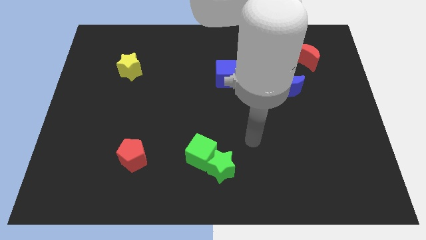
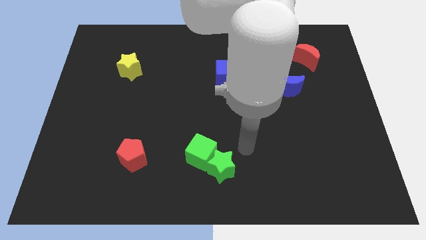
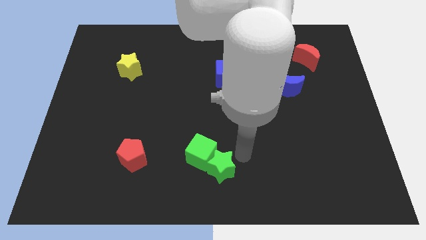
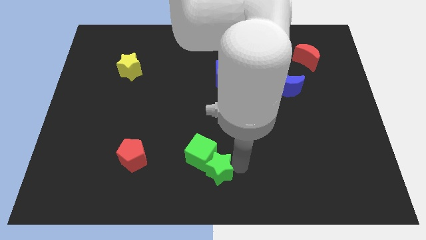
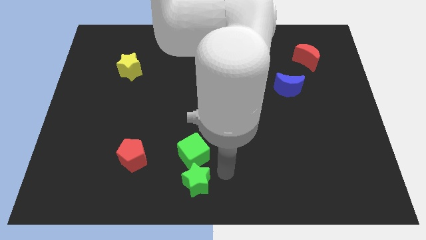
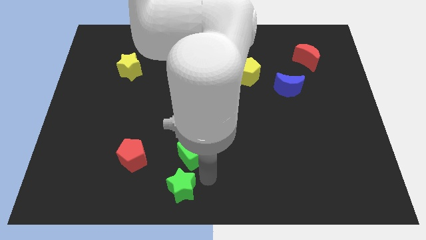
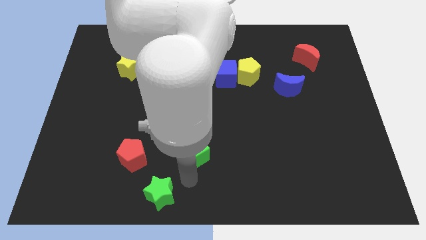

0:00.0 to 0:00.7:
separate the green cube from the green star

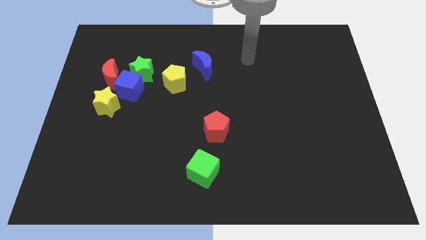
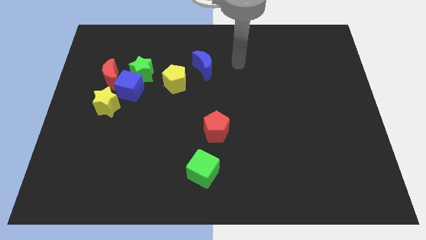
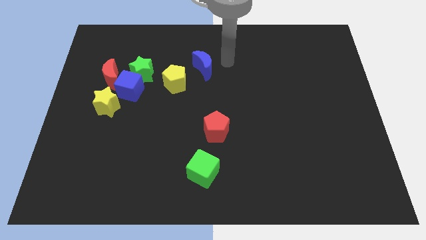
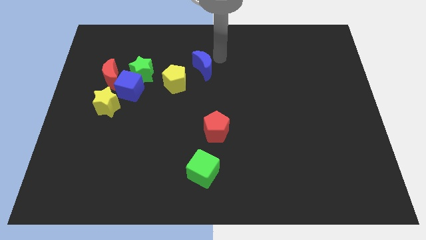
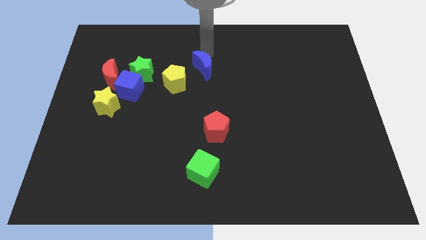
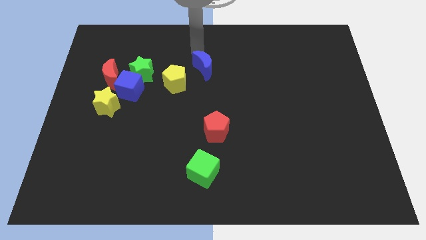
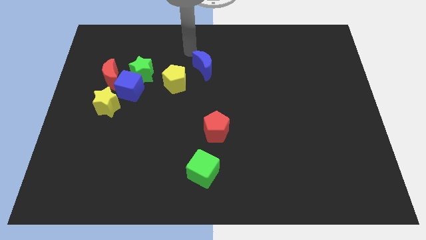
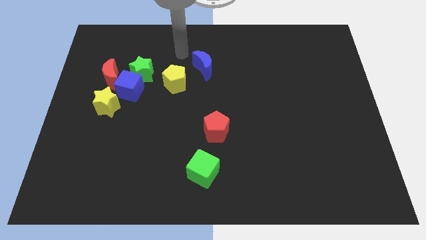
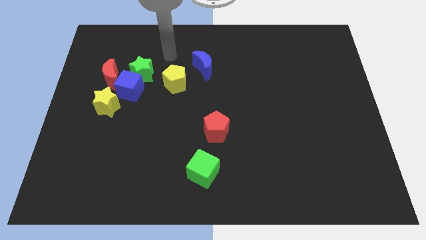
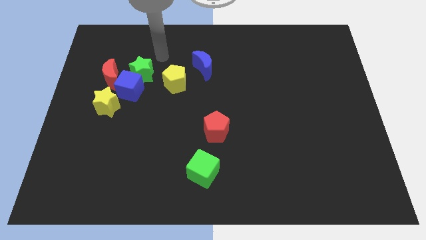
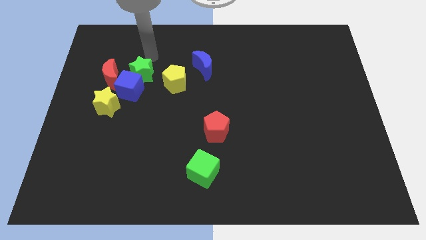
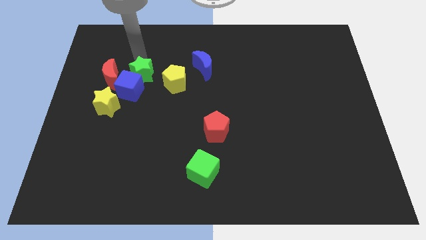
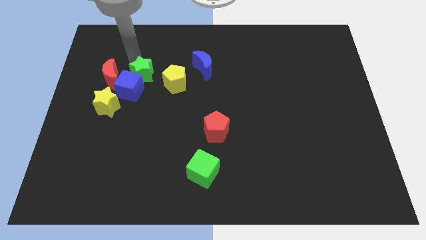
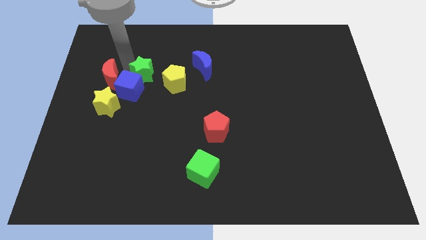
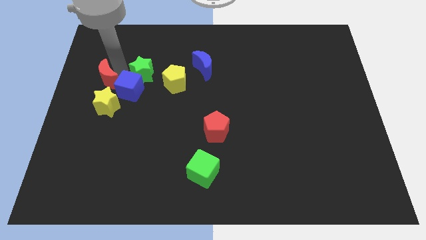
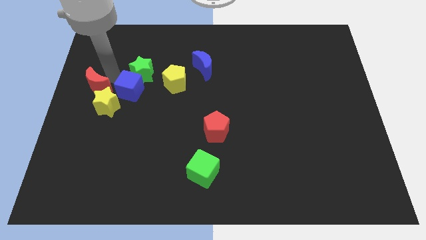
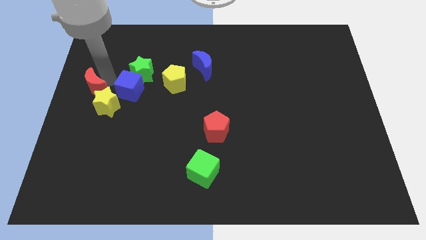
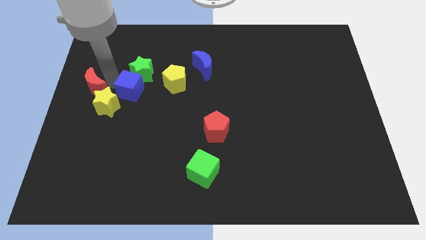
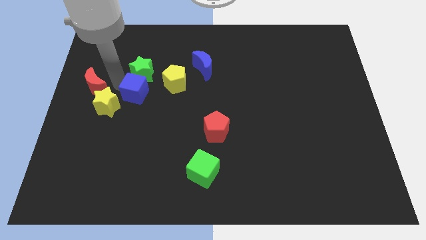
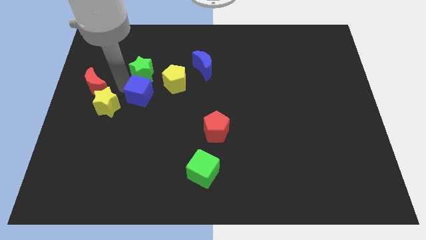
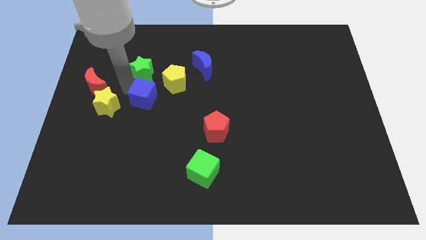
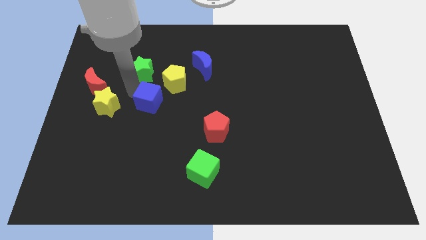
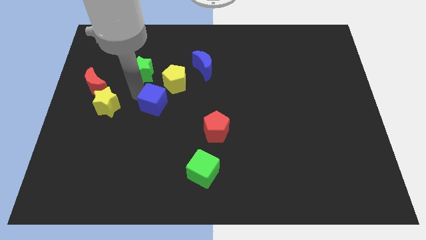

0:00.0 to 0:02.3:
move the blue cube away from the group of blocks

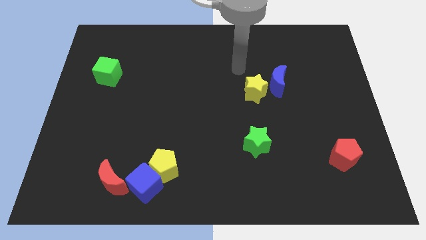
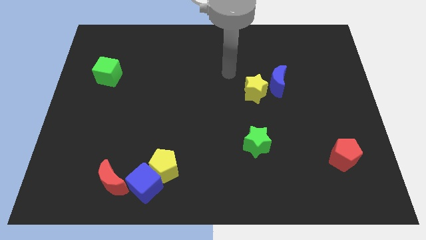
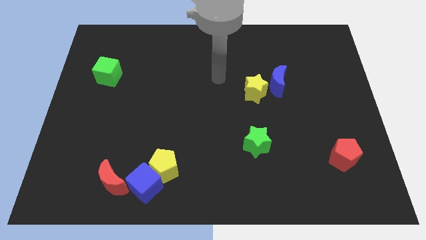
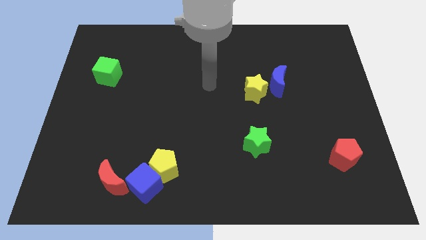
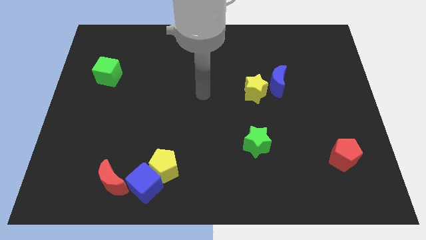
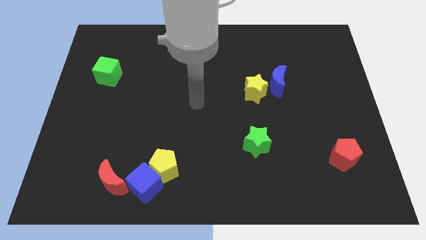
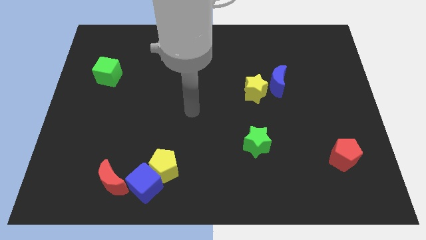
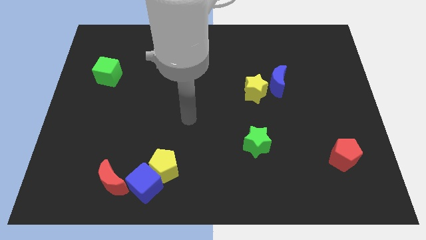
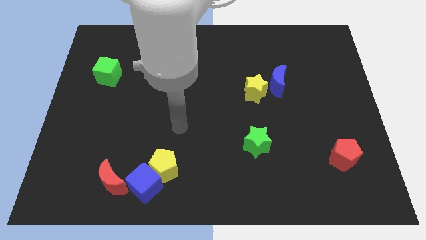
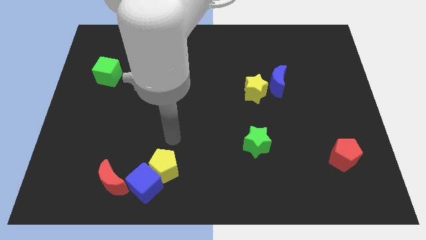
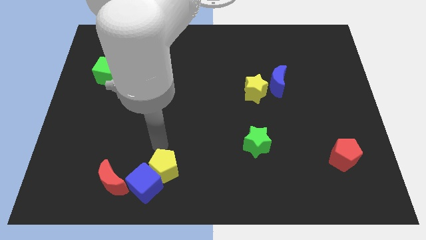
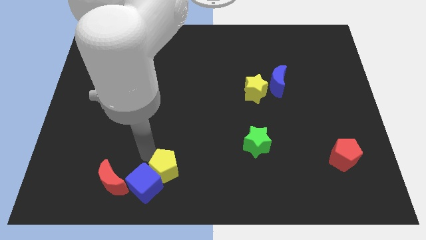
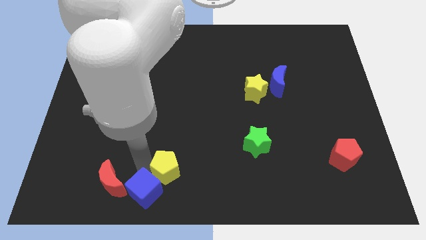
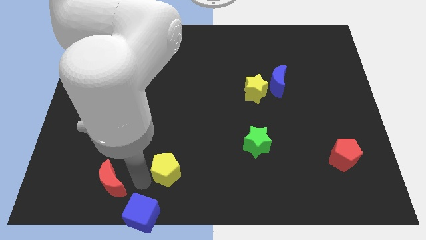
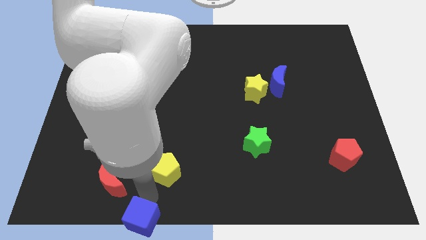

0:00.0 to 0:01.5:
move the yellow pentagon away from the blue cube

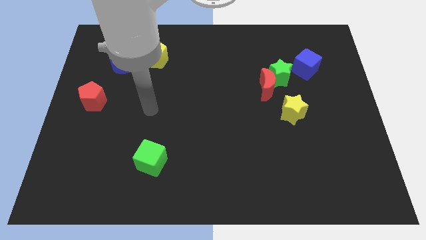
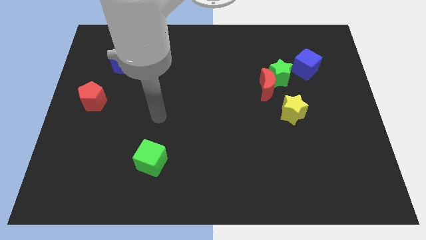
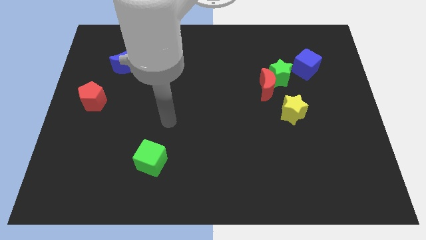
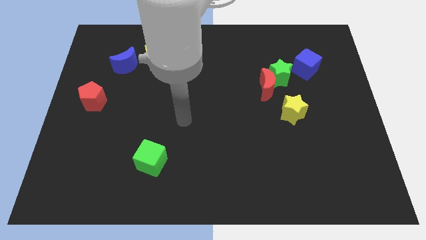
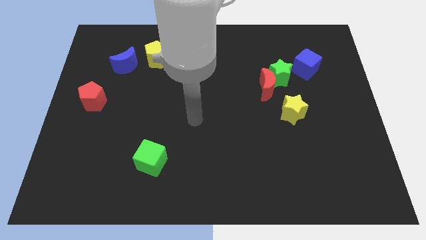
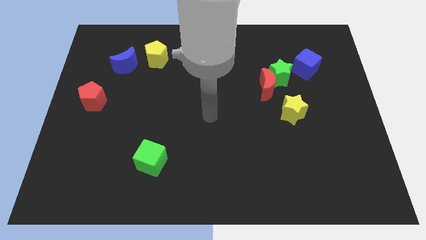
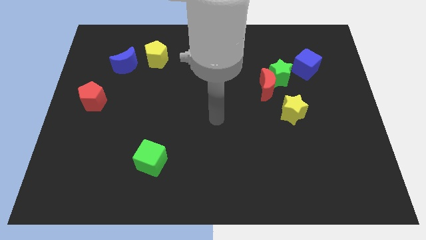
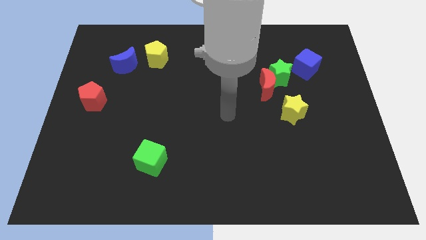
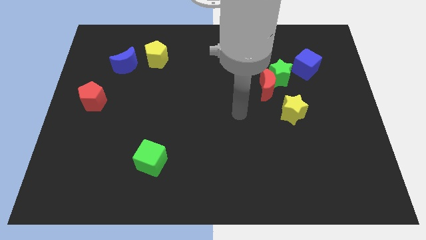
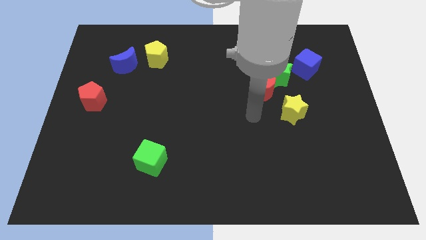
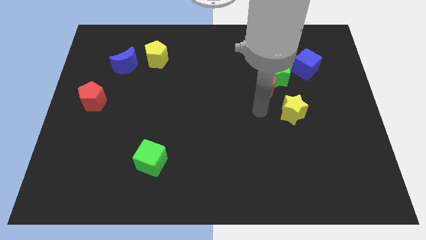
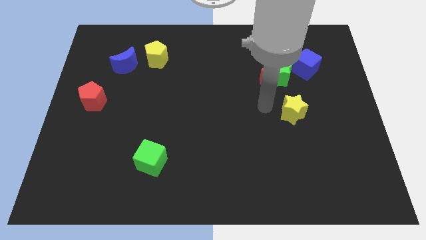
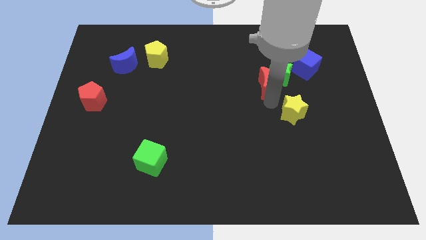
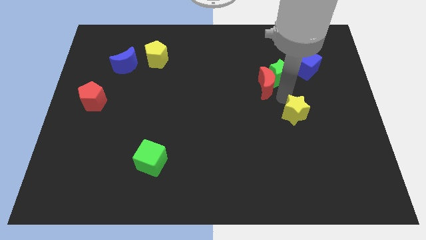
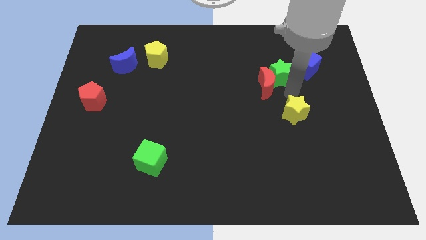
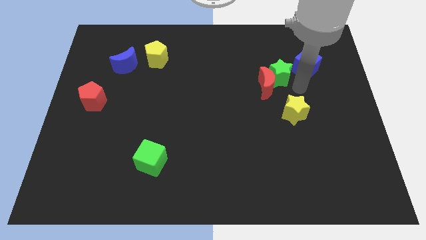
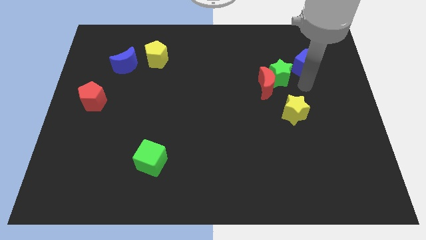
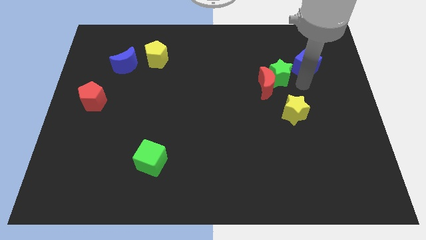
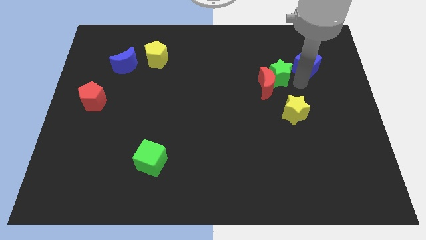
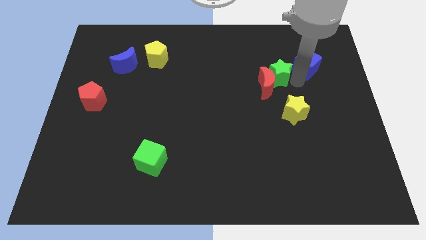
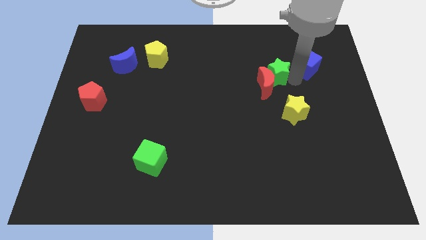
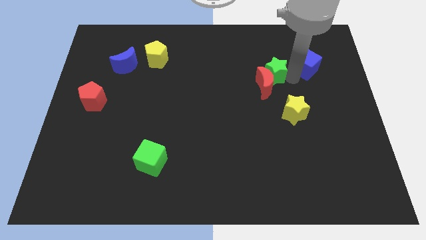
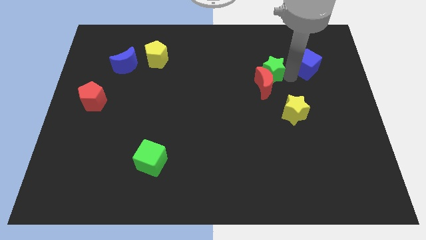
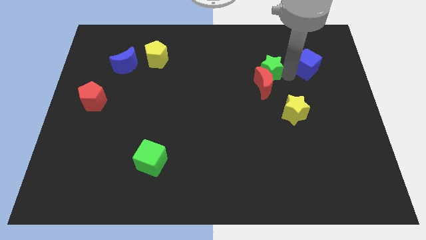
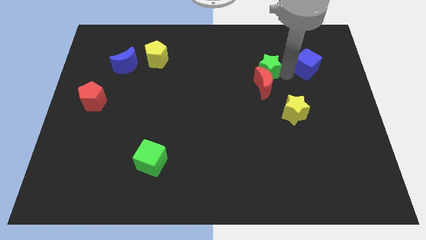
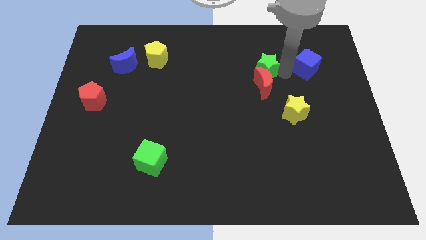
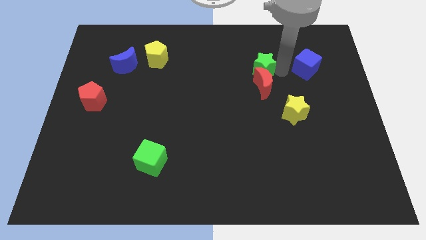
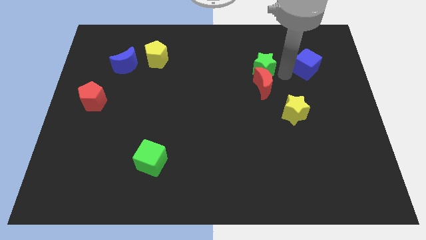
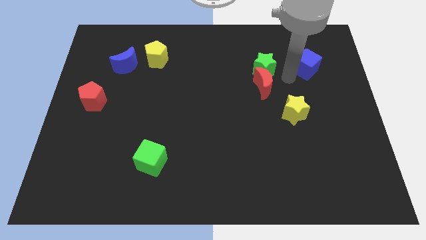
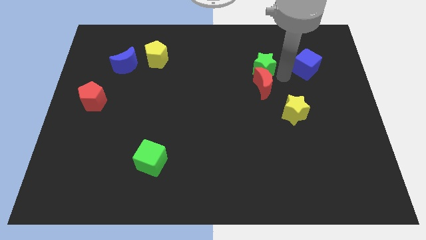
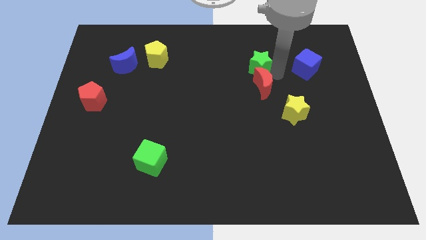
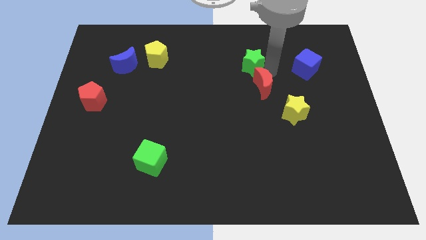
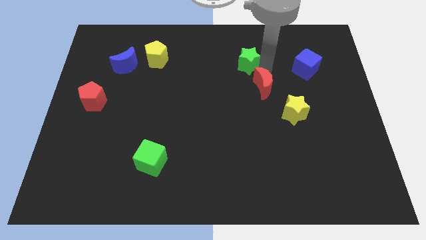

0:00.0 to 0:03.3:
move the green star away from the red moon and blue cube

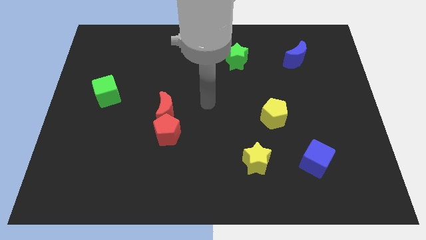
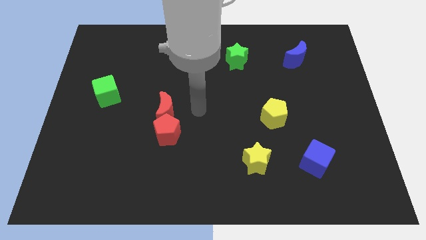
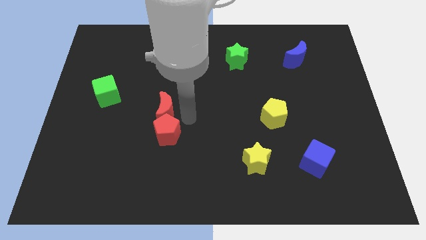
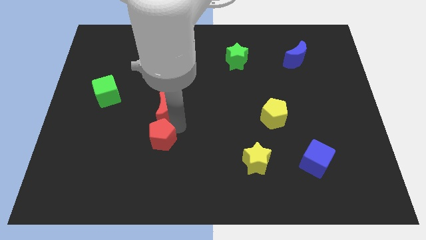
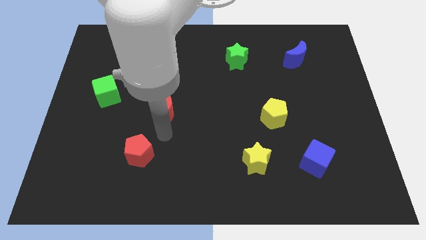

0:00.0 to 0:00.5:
pull the red moon apart from the red pentagon

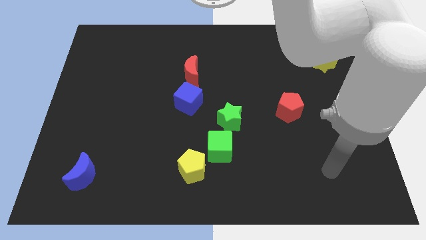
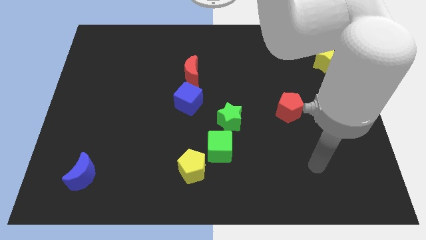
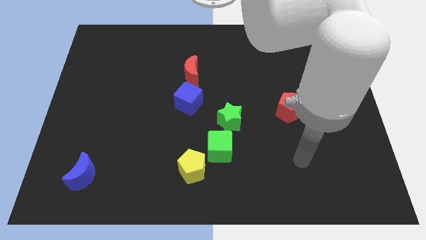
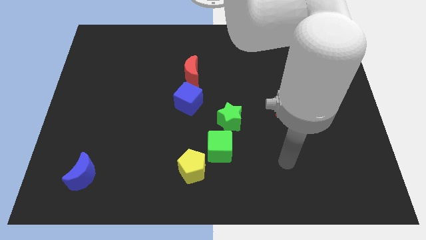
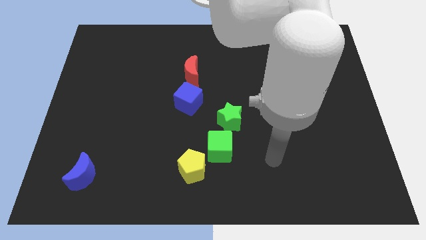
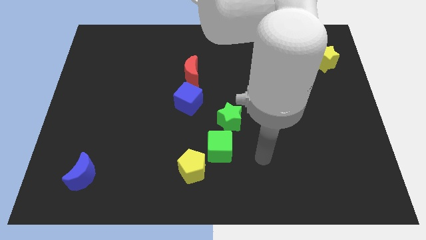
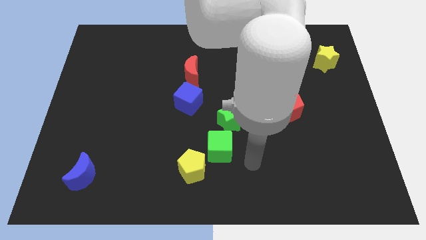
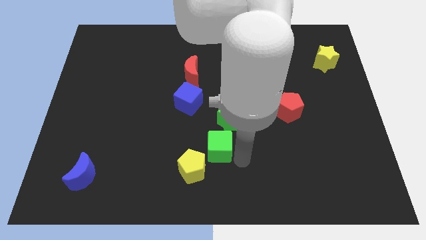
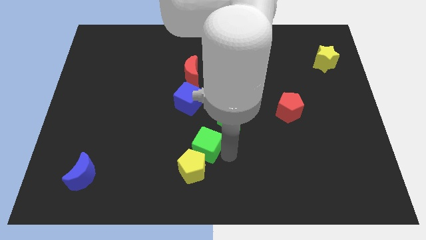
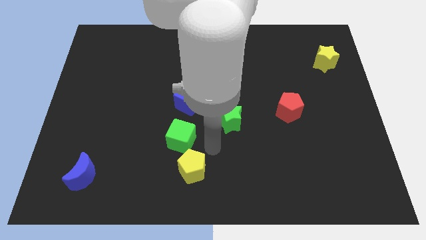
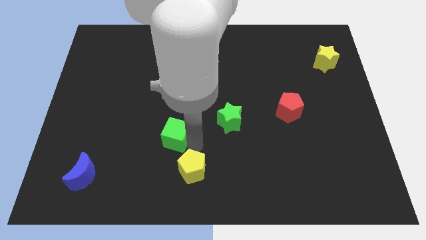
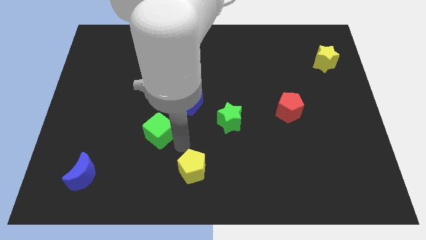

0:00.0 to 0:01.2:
separate the yellow pentagon from the green cube
